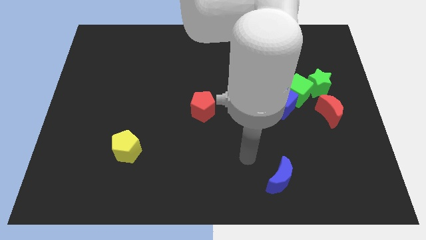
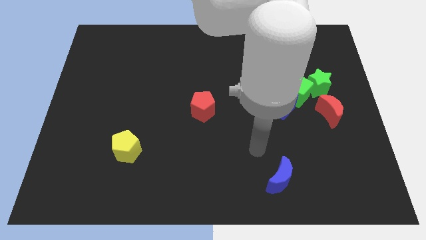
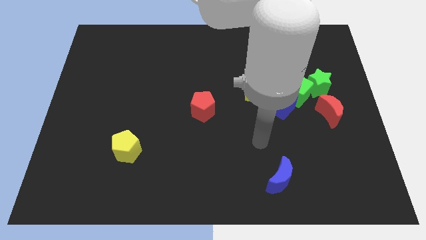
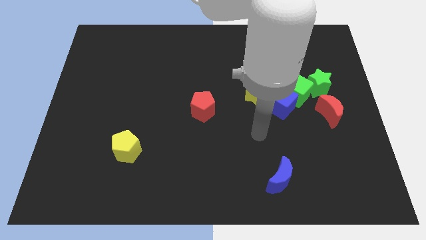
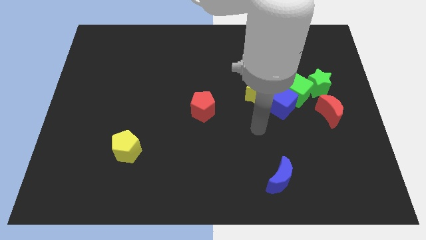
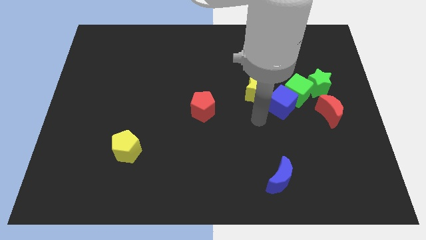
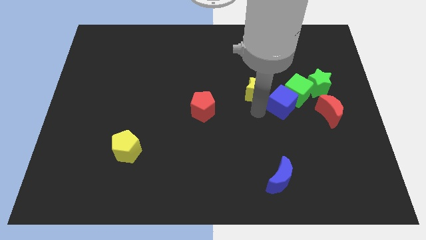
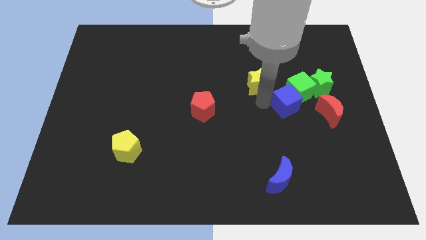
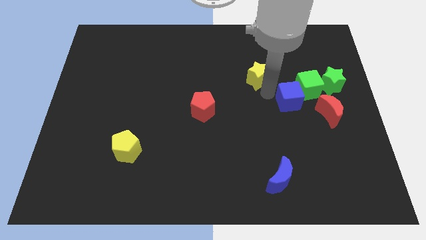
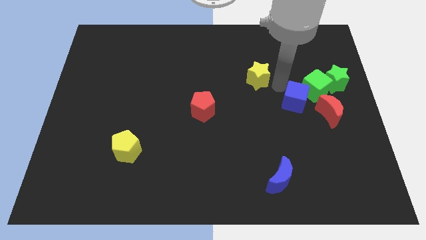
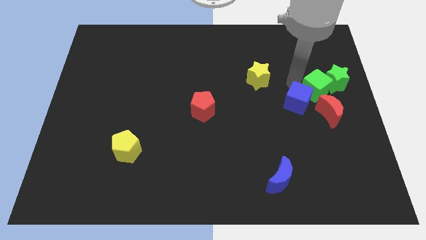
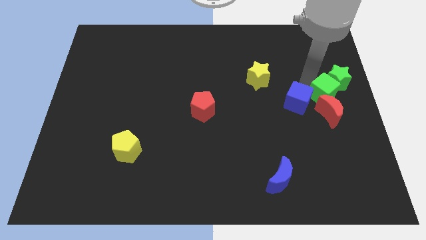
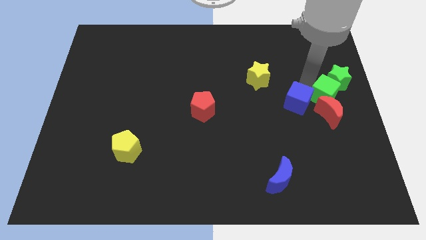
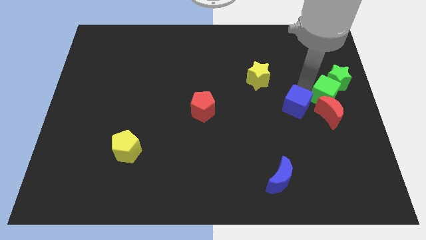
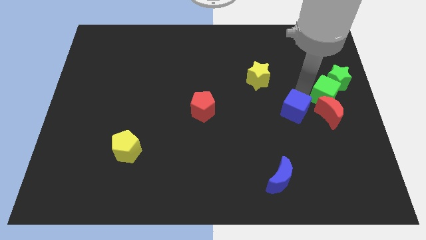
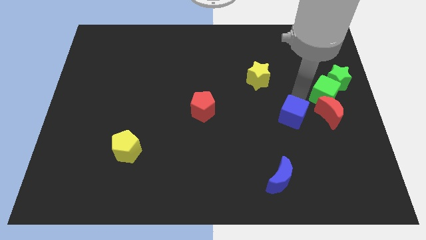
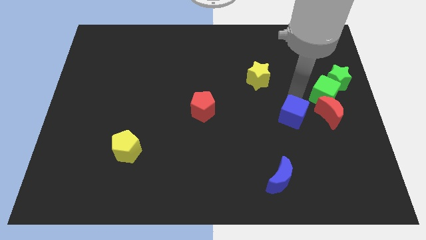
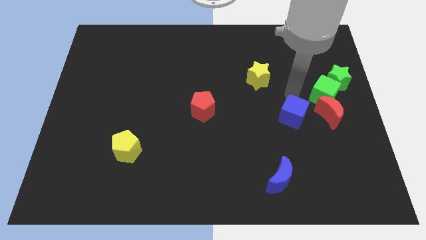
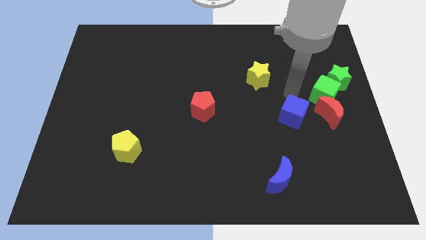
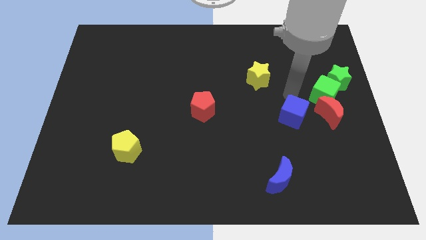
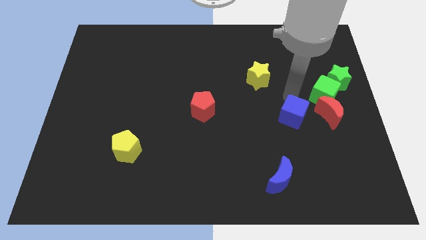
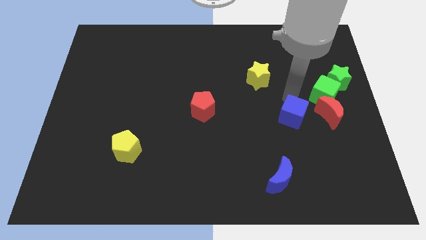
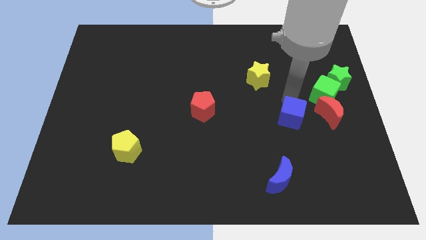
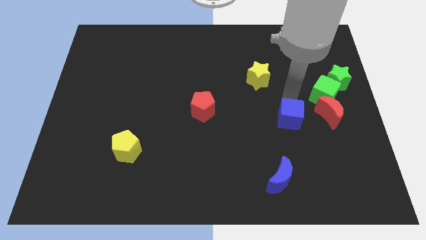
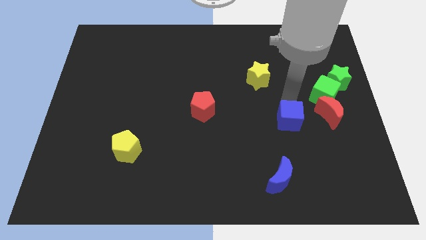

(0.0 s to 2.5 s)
move the blue cube away from the green cube and yellow star

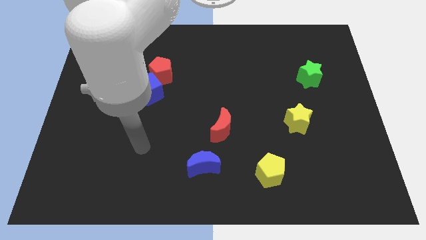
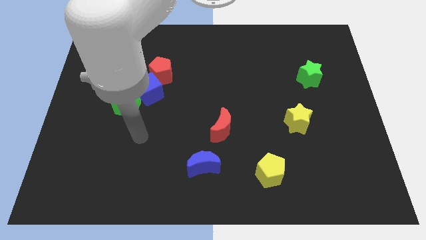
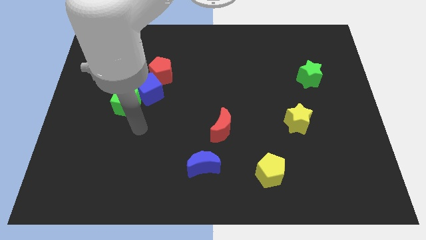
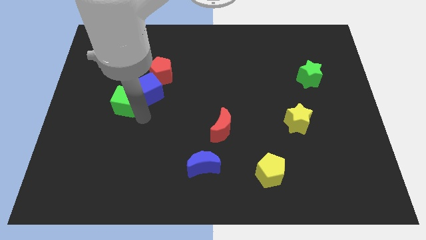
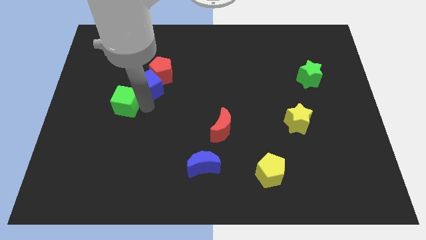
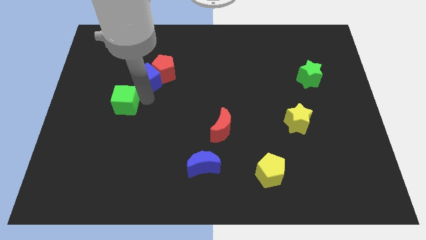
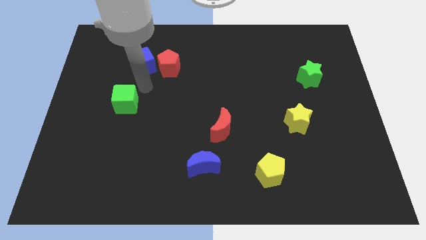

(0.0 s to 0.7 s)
move the green cube away from the blue cube

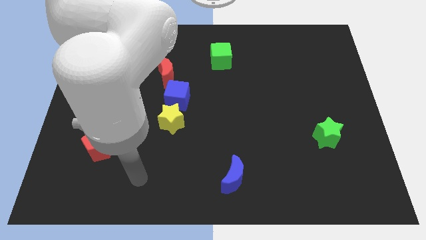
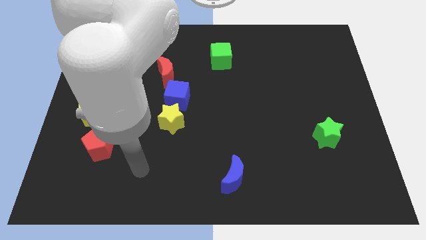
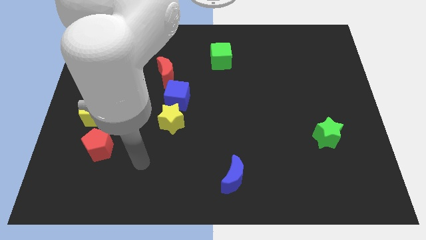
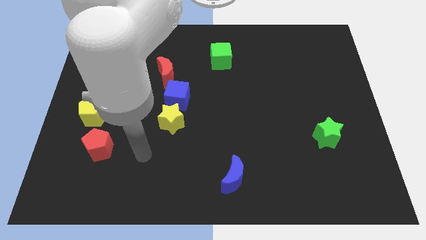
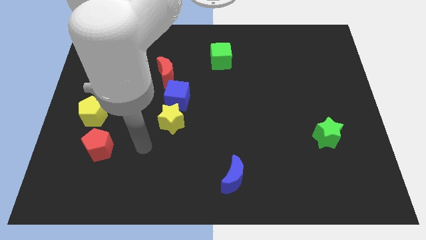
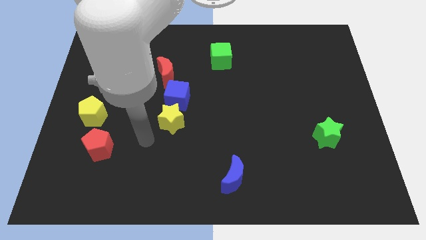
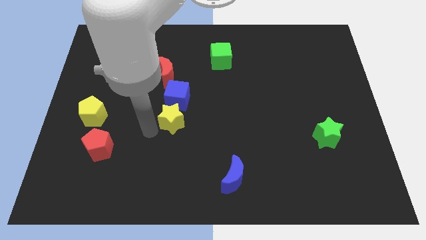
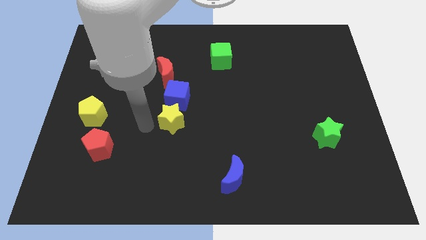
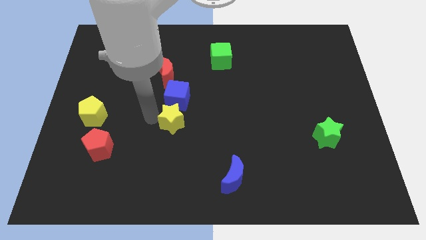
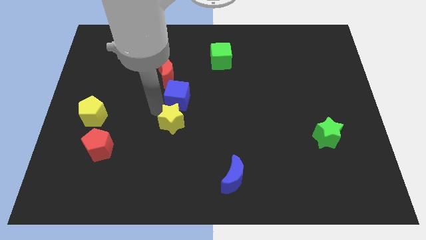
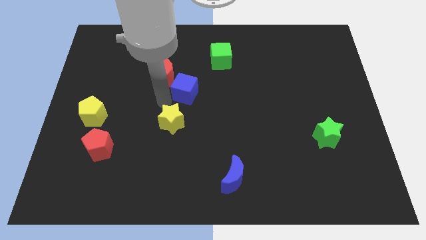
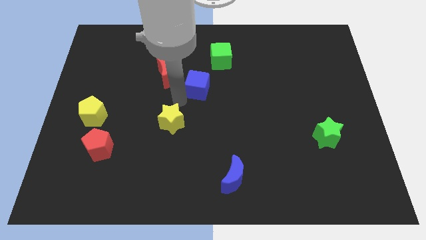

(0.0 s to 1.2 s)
pull the yellow star apart from the blue cube

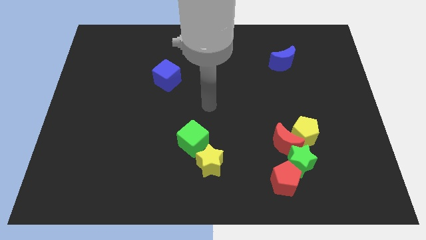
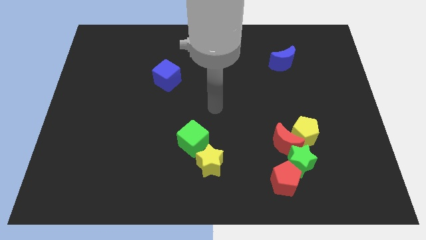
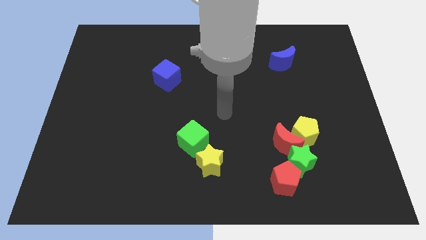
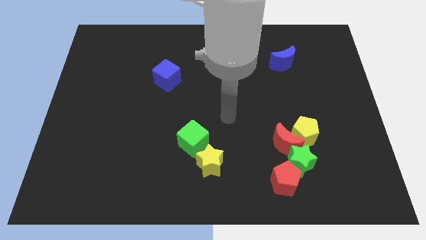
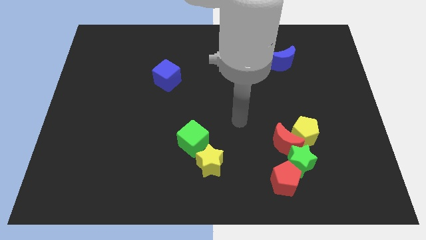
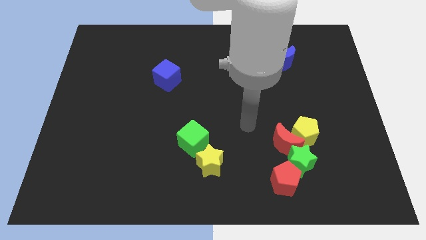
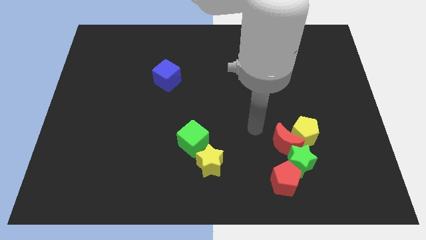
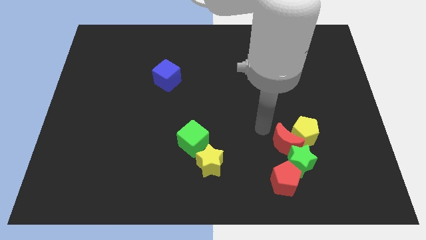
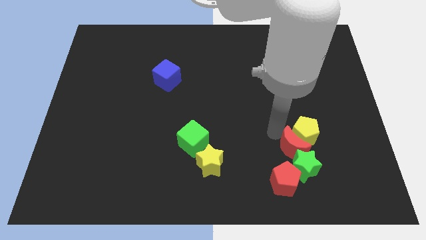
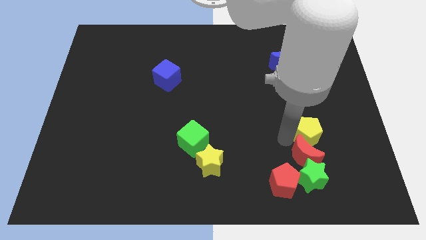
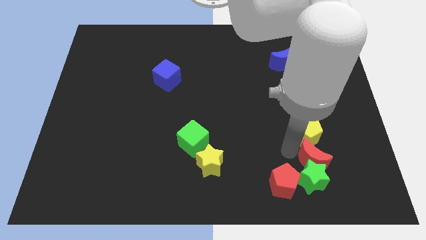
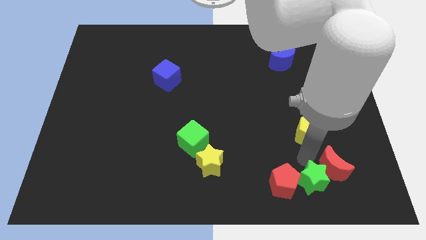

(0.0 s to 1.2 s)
pull the yellow pentagon apart from the red moon and green star

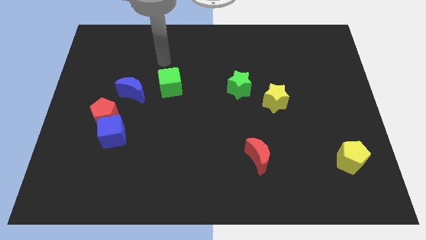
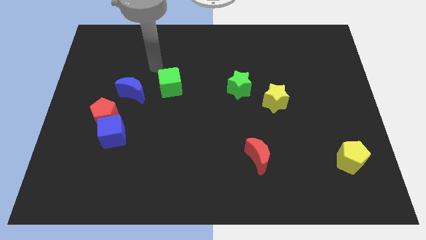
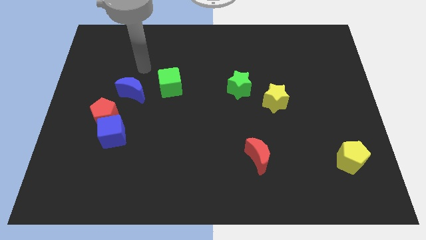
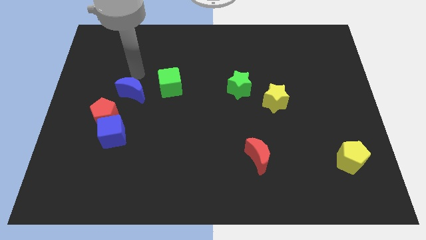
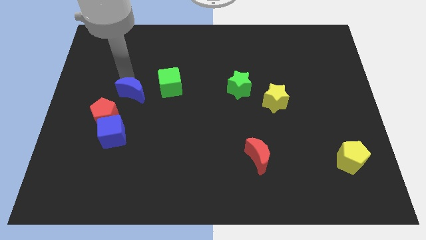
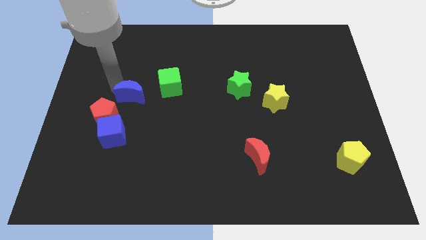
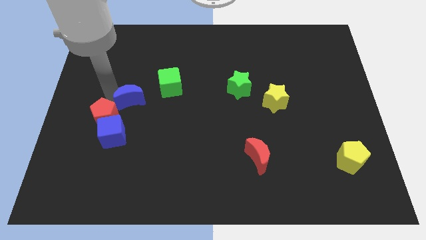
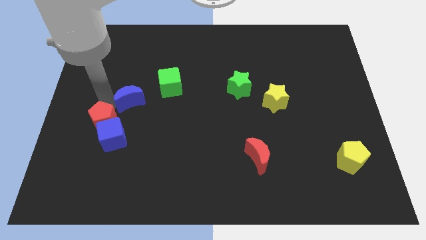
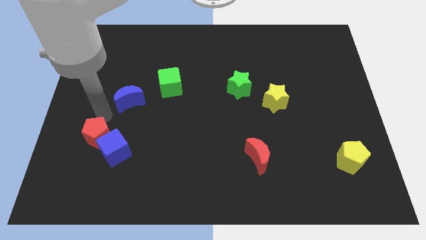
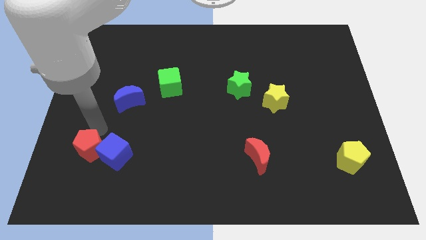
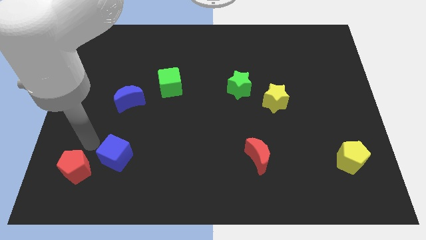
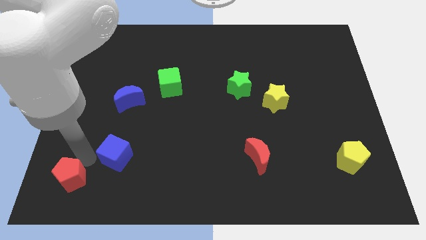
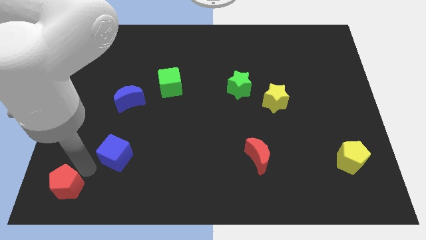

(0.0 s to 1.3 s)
move the blue cube away from the red pentagon

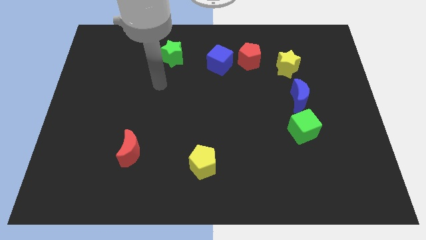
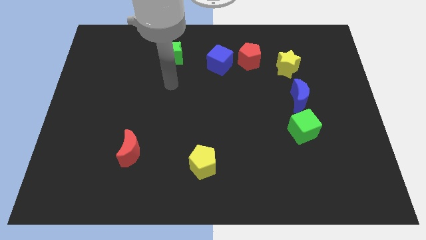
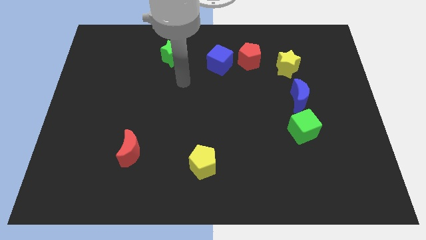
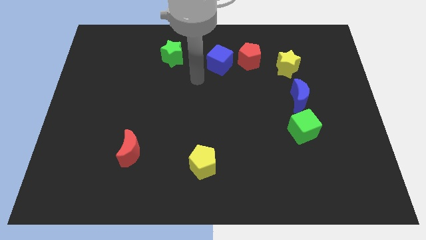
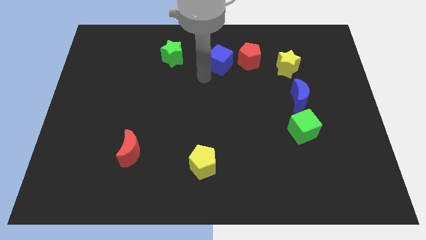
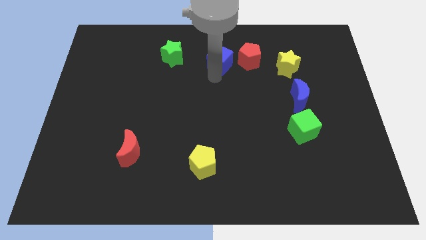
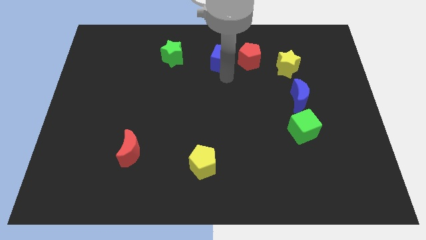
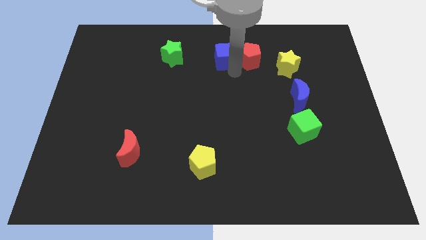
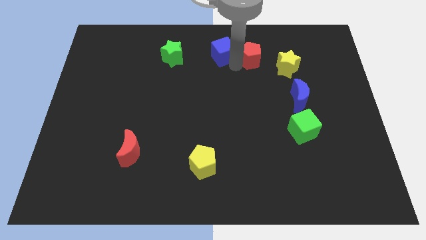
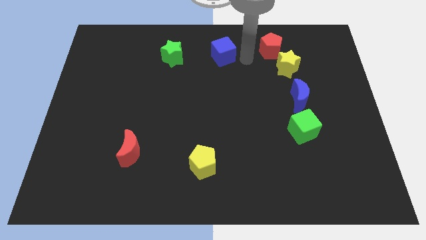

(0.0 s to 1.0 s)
separate the blue cube from the red pentagon

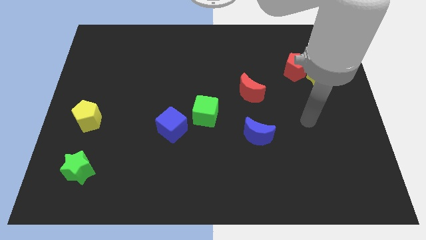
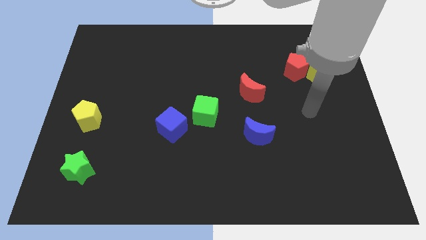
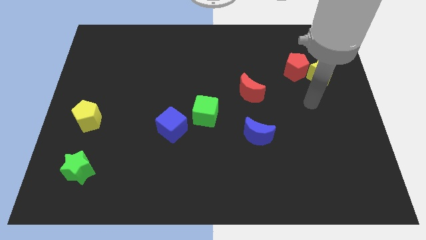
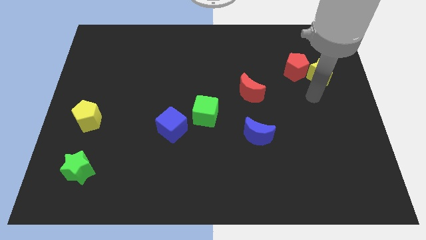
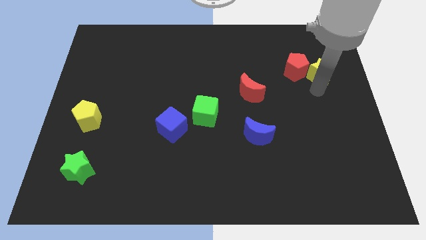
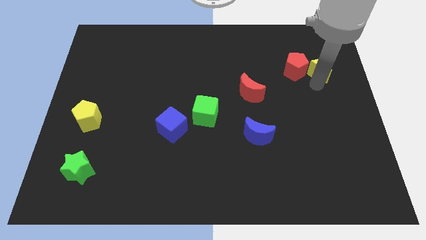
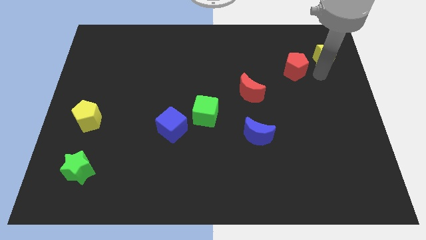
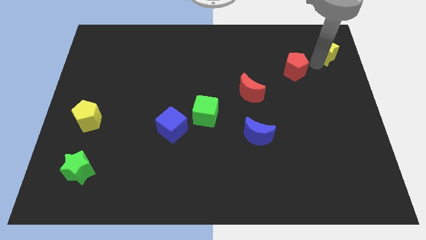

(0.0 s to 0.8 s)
pull the red pentagon apart from the yellow star

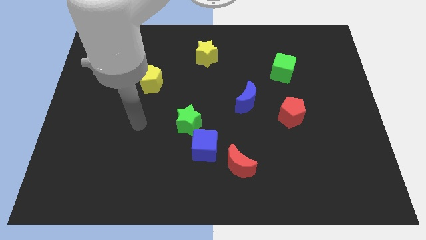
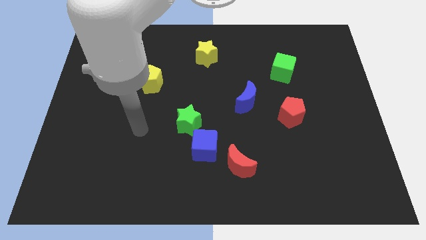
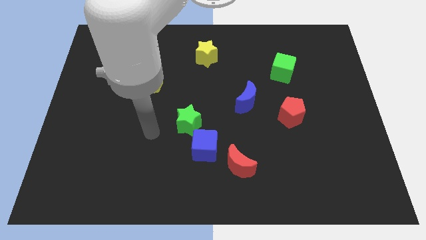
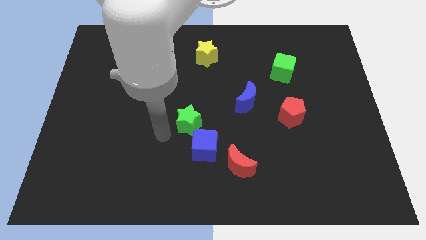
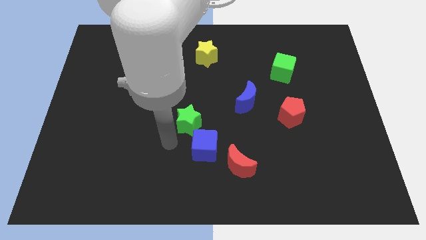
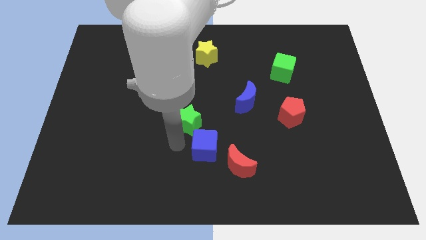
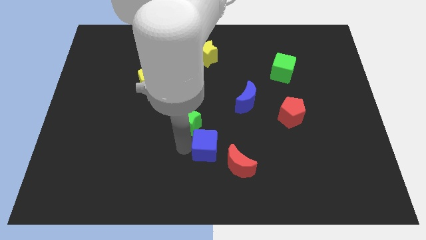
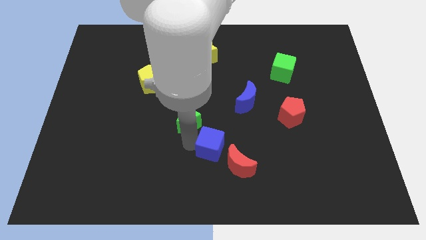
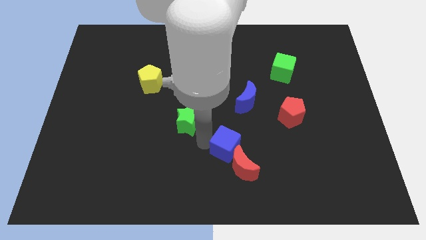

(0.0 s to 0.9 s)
move the green star away from the blue cube
